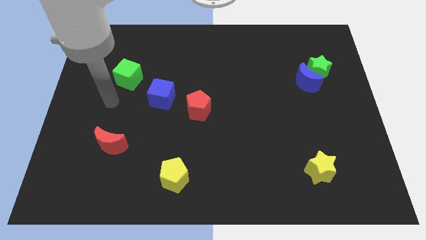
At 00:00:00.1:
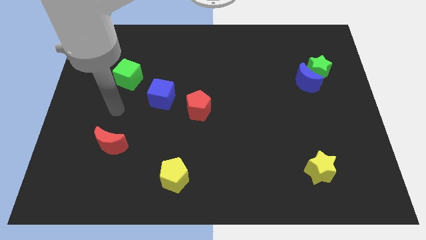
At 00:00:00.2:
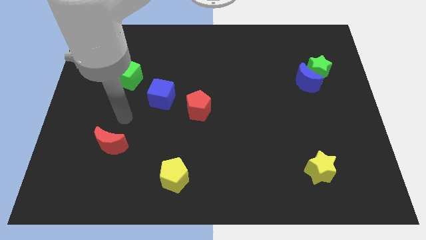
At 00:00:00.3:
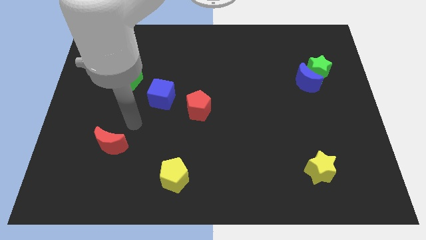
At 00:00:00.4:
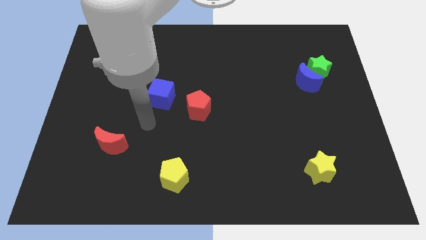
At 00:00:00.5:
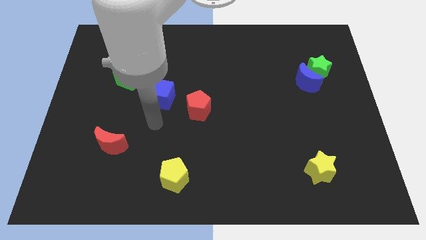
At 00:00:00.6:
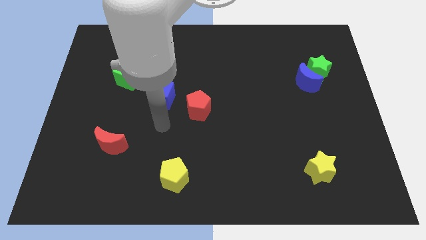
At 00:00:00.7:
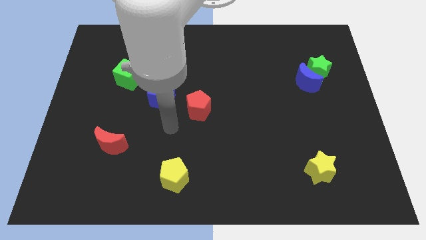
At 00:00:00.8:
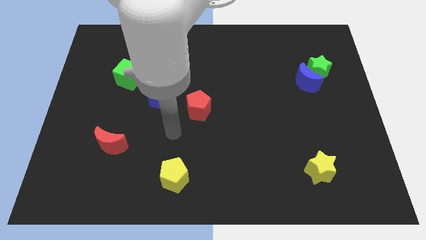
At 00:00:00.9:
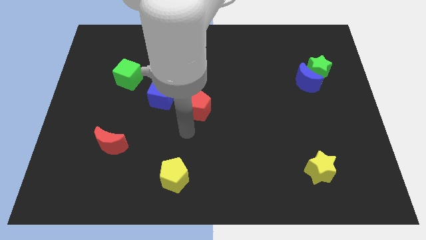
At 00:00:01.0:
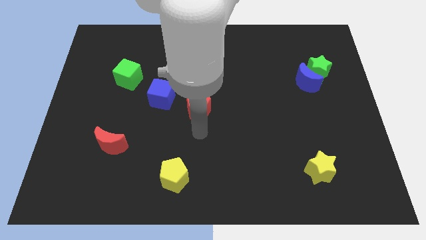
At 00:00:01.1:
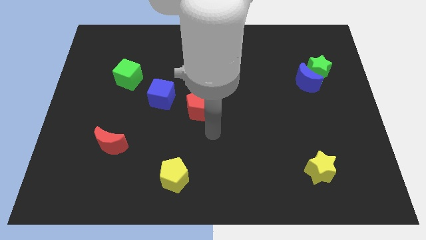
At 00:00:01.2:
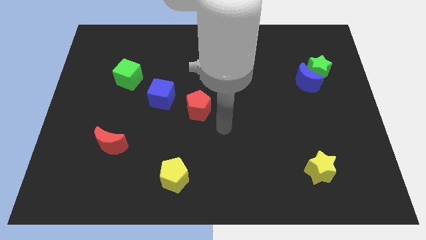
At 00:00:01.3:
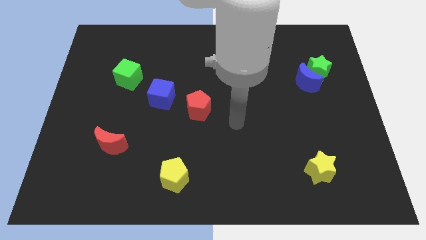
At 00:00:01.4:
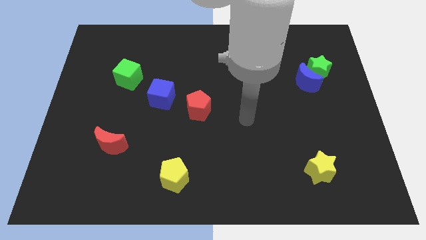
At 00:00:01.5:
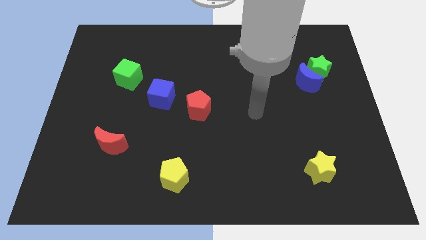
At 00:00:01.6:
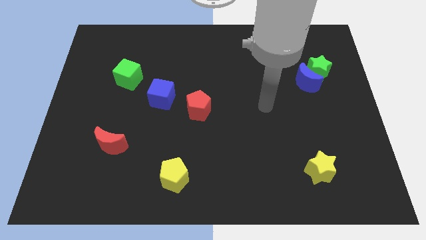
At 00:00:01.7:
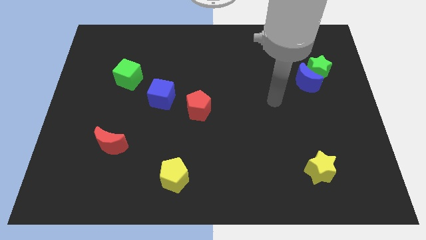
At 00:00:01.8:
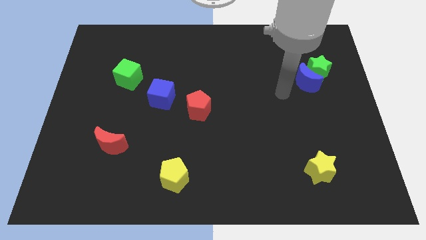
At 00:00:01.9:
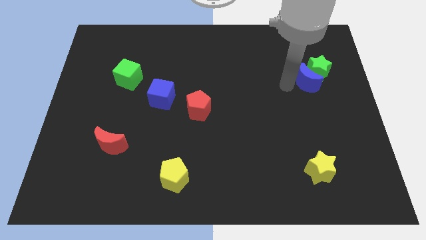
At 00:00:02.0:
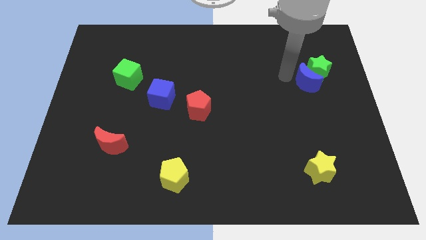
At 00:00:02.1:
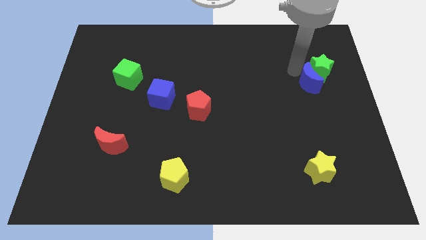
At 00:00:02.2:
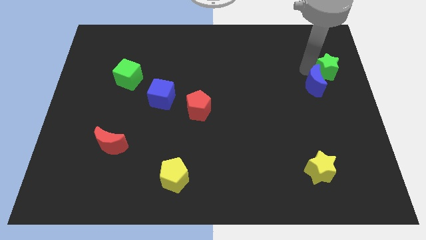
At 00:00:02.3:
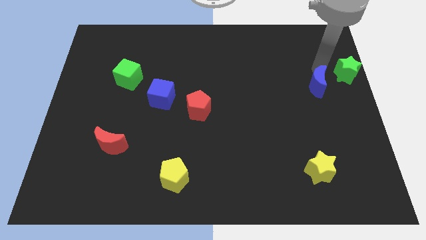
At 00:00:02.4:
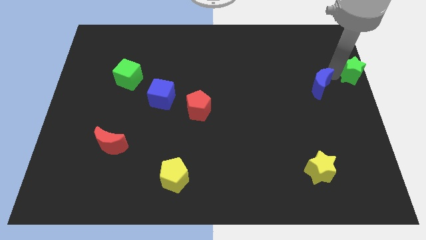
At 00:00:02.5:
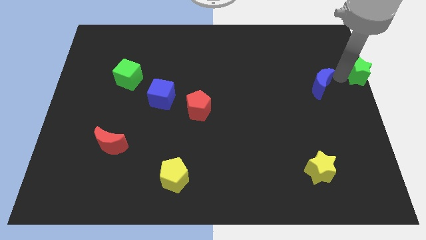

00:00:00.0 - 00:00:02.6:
move the blue moon away from the green star

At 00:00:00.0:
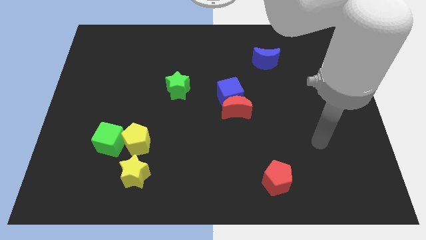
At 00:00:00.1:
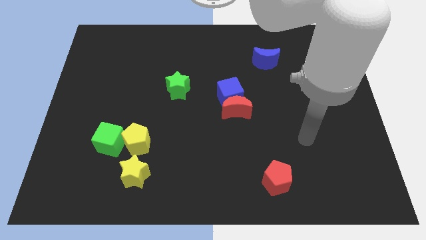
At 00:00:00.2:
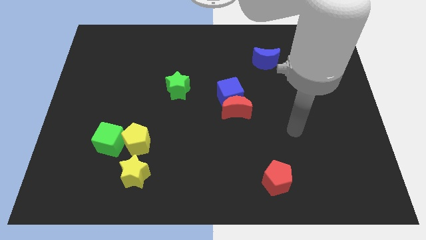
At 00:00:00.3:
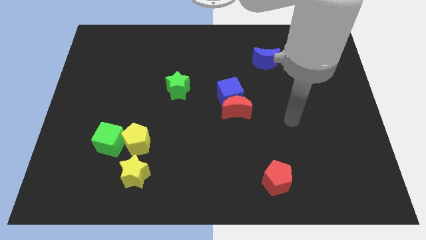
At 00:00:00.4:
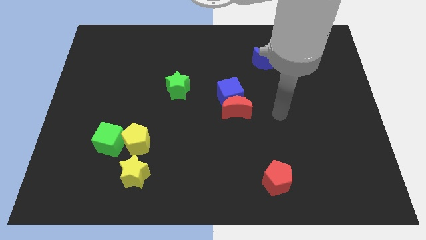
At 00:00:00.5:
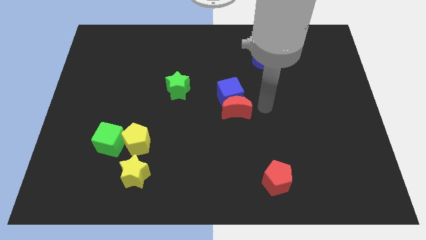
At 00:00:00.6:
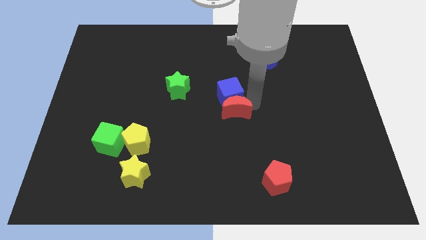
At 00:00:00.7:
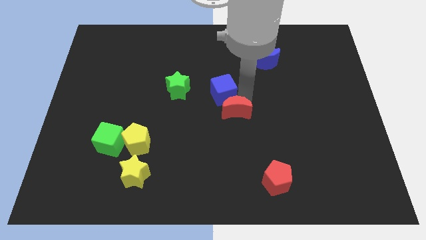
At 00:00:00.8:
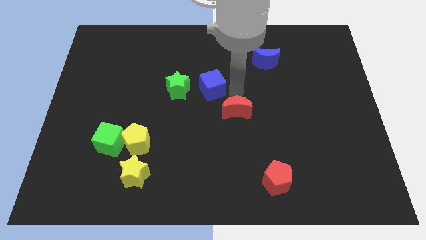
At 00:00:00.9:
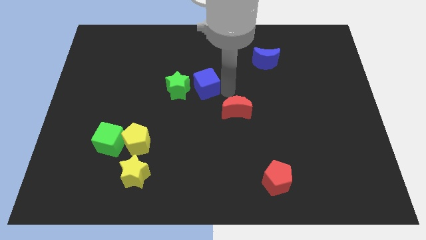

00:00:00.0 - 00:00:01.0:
separate the red moon from the blue cube

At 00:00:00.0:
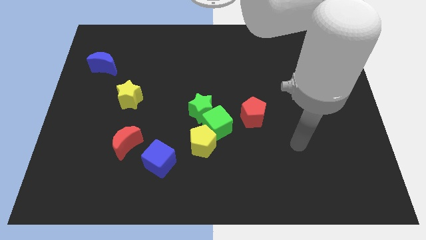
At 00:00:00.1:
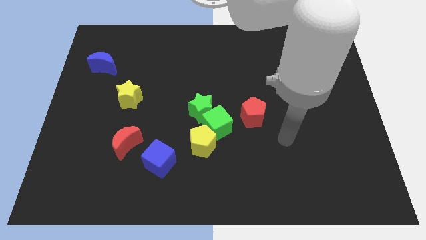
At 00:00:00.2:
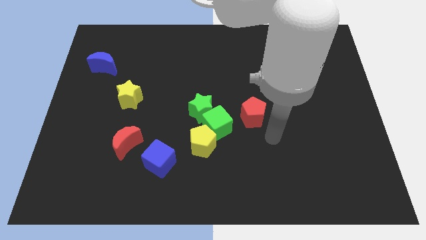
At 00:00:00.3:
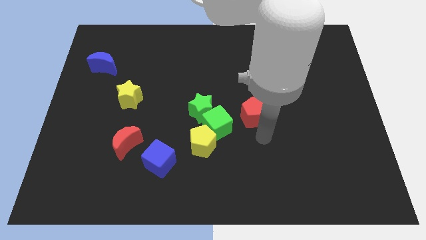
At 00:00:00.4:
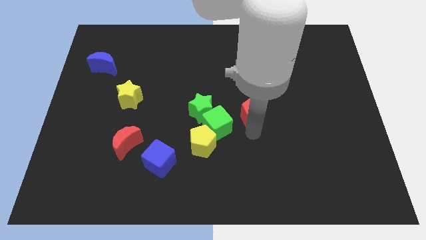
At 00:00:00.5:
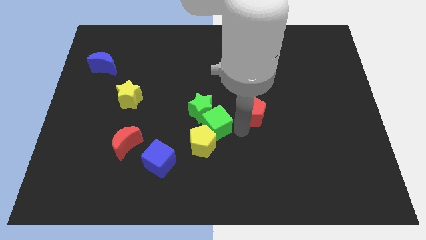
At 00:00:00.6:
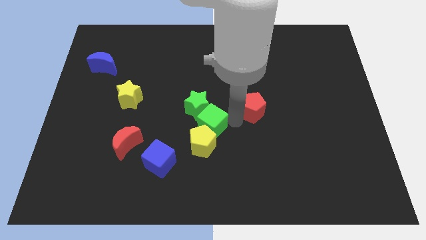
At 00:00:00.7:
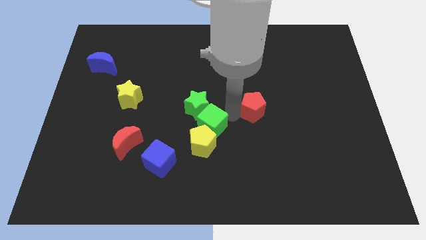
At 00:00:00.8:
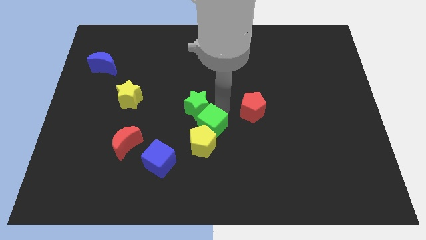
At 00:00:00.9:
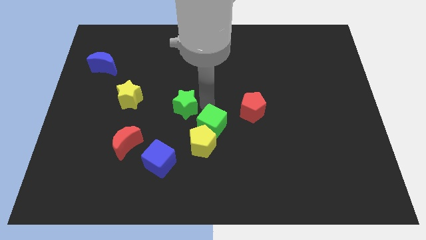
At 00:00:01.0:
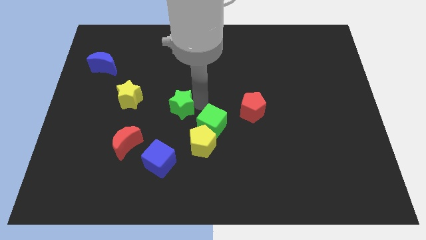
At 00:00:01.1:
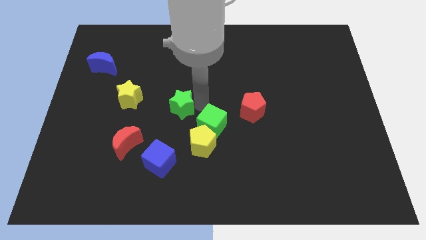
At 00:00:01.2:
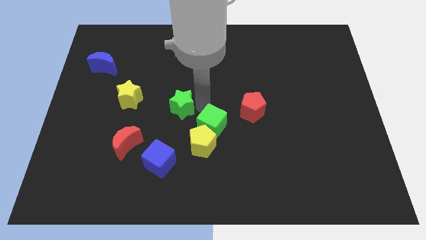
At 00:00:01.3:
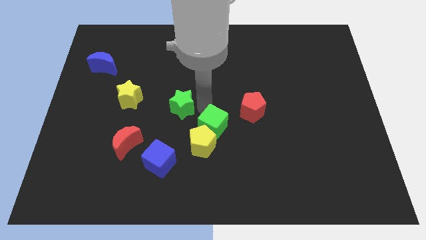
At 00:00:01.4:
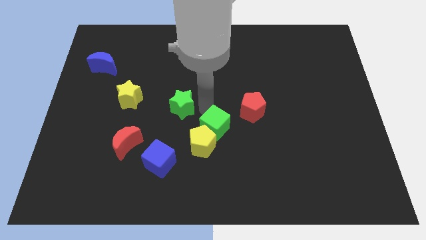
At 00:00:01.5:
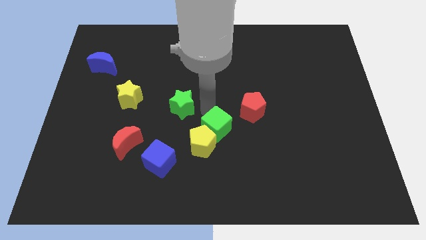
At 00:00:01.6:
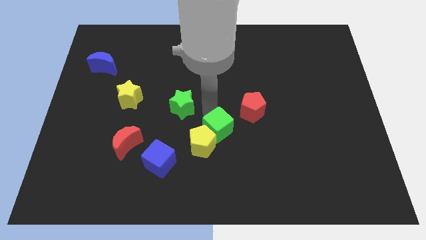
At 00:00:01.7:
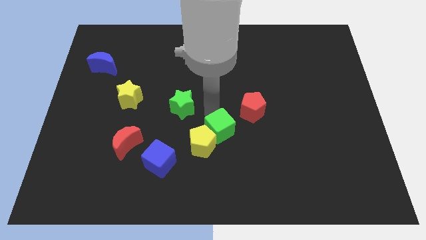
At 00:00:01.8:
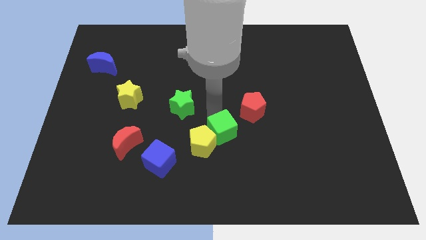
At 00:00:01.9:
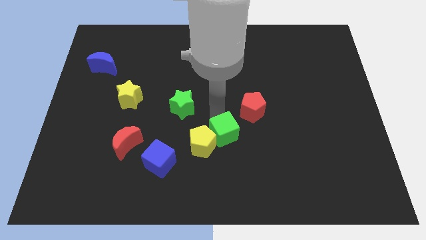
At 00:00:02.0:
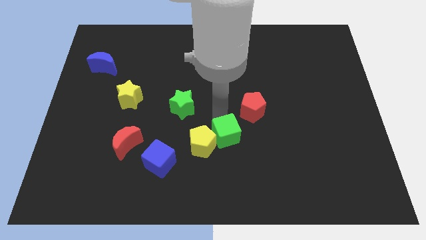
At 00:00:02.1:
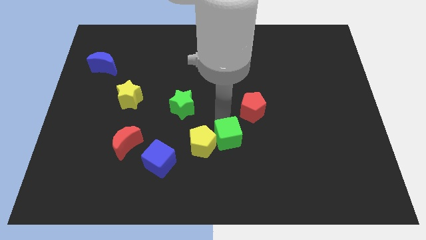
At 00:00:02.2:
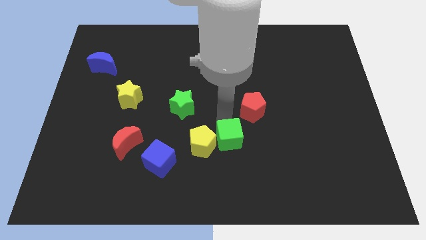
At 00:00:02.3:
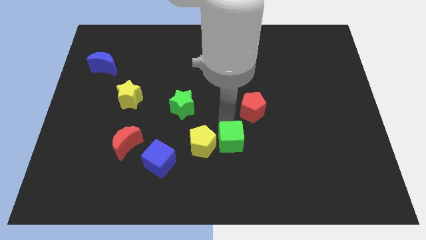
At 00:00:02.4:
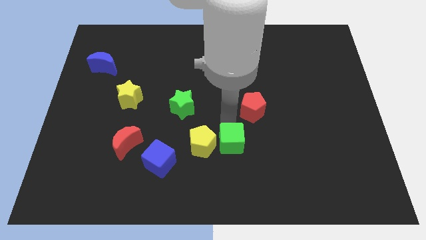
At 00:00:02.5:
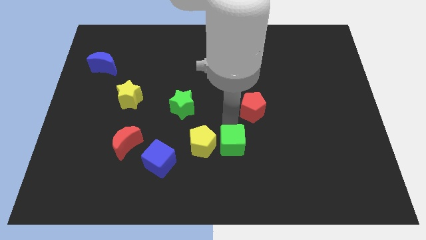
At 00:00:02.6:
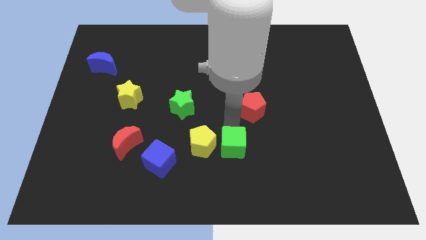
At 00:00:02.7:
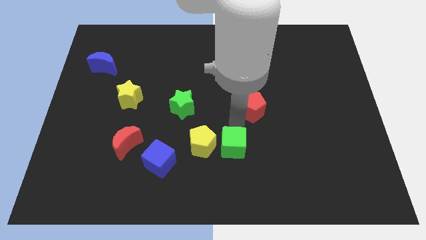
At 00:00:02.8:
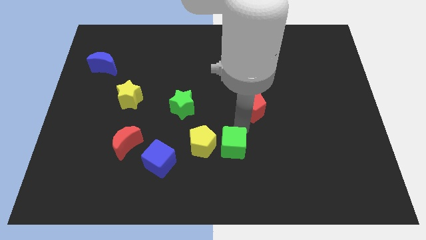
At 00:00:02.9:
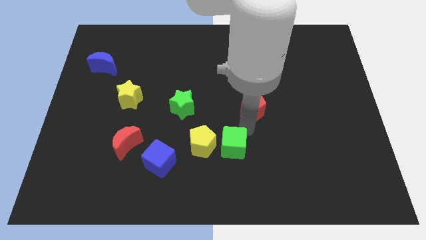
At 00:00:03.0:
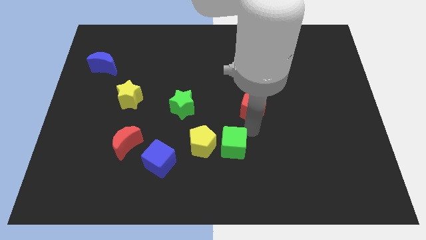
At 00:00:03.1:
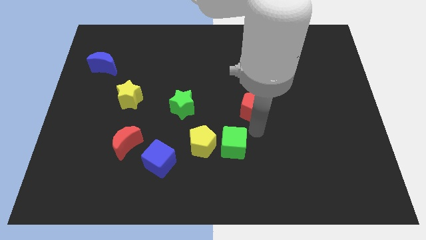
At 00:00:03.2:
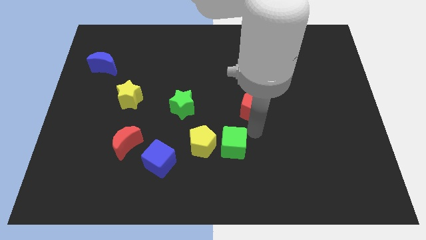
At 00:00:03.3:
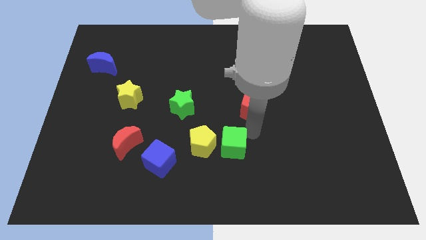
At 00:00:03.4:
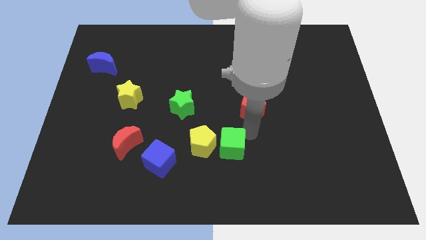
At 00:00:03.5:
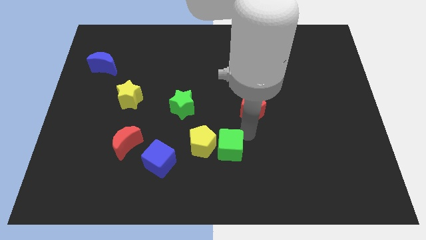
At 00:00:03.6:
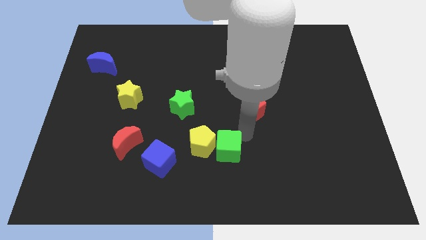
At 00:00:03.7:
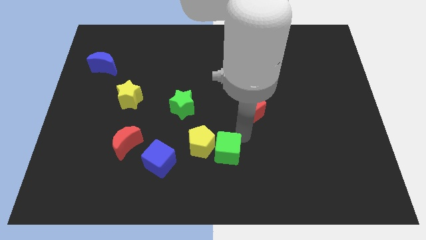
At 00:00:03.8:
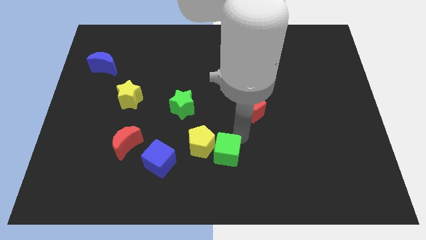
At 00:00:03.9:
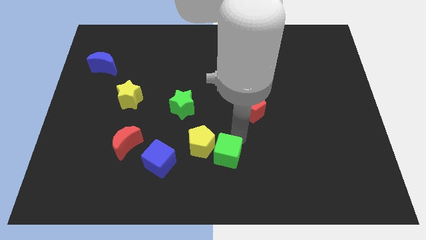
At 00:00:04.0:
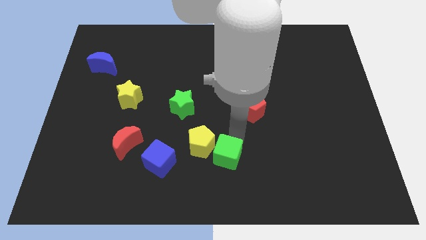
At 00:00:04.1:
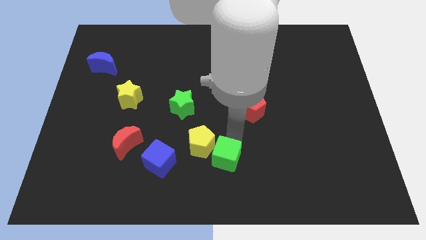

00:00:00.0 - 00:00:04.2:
move the green cube away from the green star, yellow pentagon, and red pentagon

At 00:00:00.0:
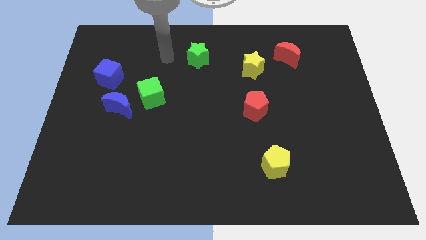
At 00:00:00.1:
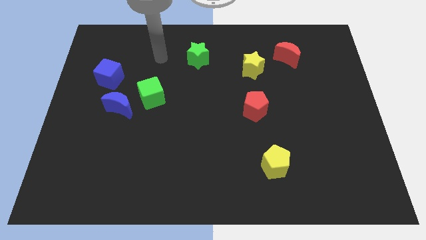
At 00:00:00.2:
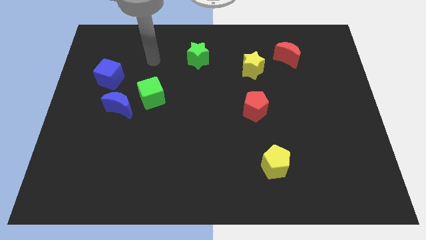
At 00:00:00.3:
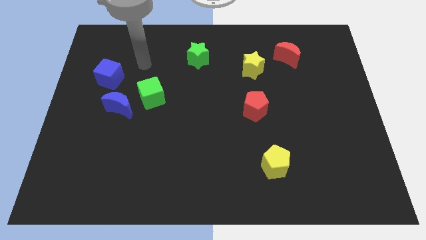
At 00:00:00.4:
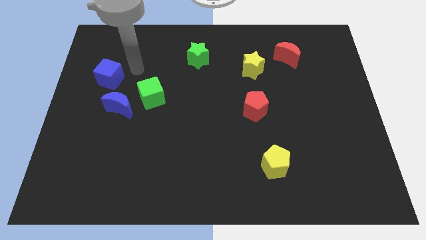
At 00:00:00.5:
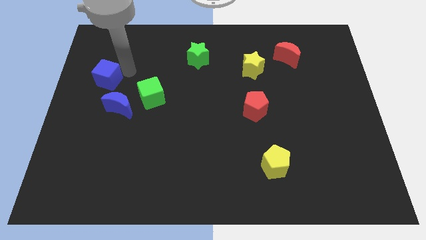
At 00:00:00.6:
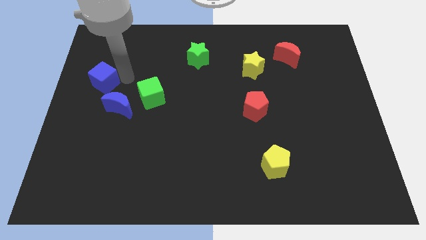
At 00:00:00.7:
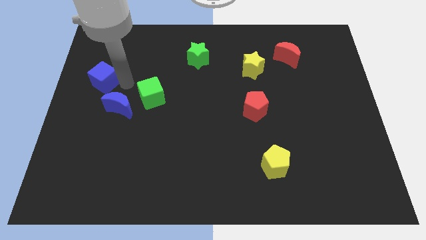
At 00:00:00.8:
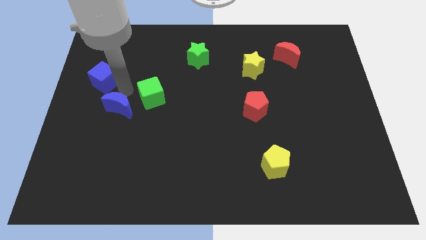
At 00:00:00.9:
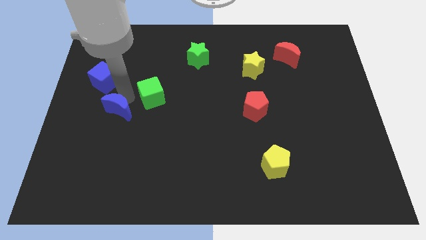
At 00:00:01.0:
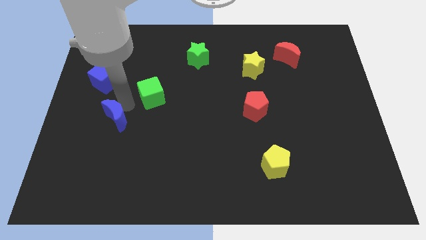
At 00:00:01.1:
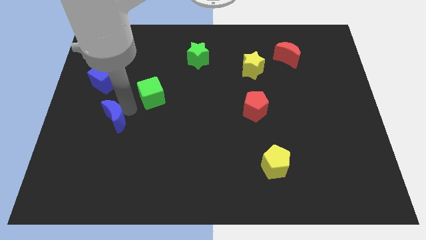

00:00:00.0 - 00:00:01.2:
move the green cube away from the blue moon

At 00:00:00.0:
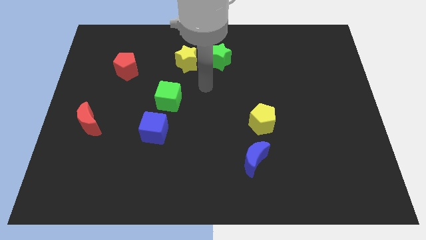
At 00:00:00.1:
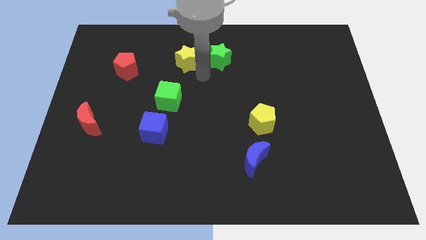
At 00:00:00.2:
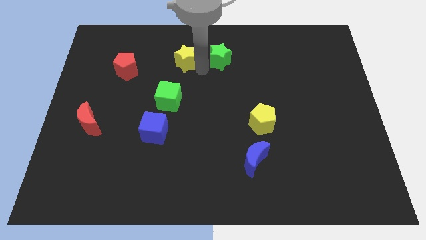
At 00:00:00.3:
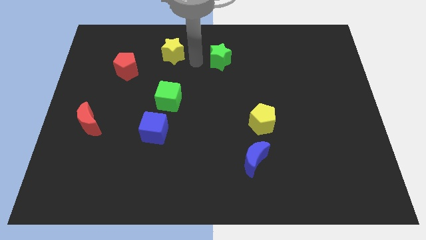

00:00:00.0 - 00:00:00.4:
pull the green star apart from the yellow star
